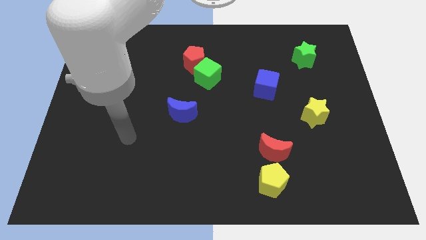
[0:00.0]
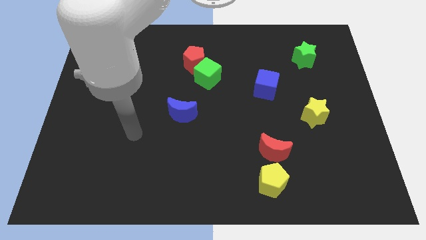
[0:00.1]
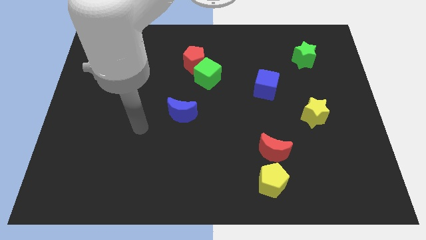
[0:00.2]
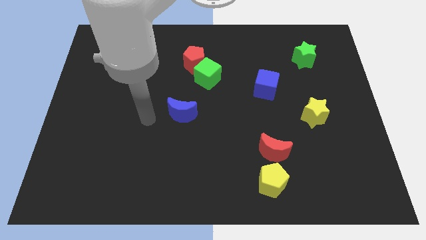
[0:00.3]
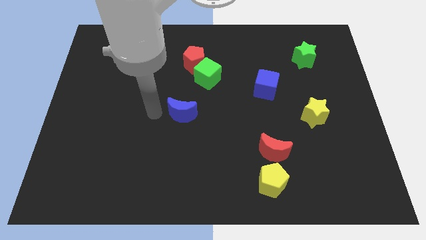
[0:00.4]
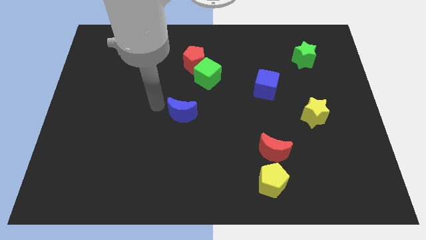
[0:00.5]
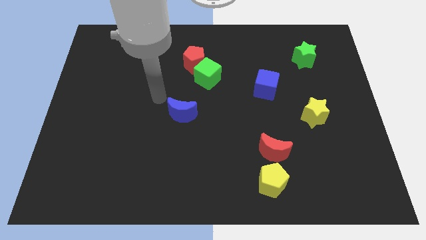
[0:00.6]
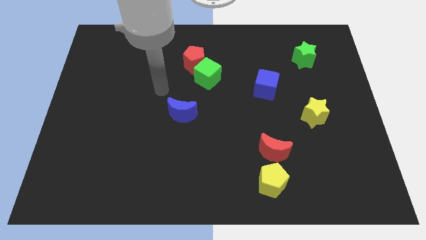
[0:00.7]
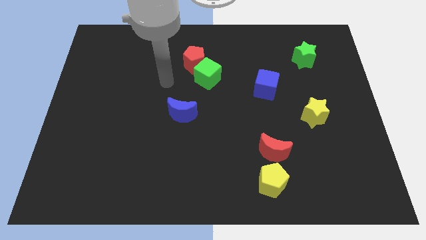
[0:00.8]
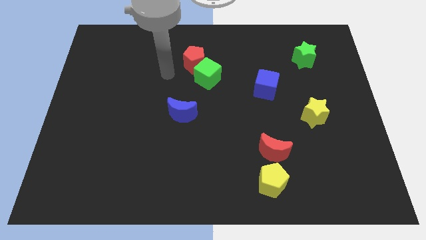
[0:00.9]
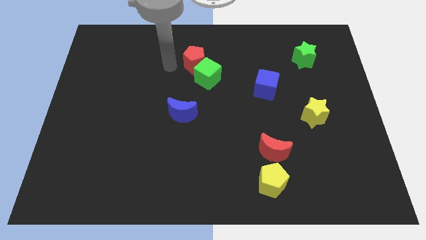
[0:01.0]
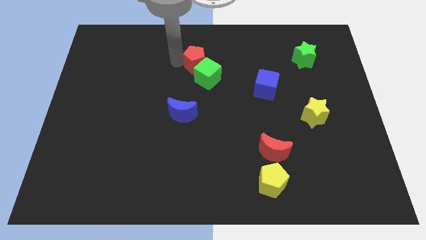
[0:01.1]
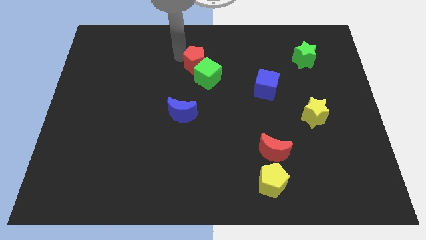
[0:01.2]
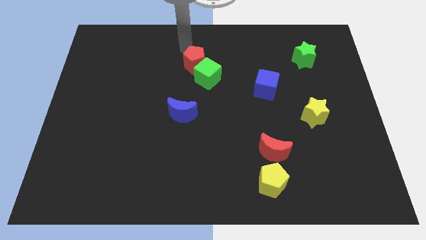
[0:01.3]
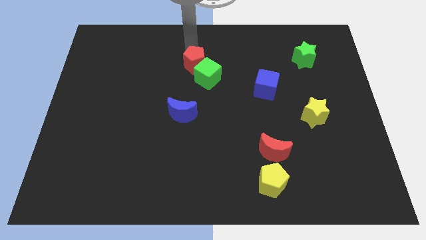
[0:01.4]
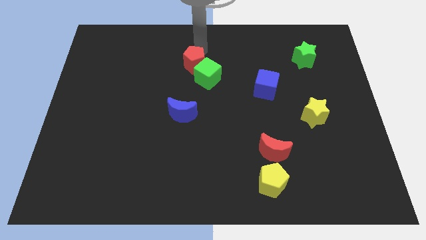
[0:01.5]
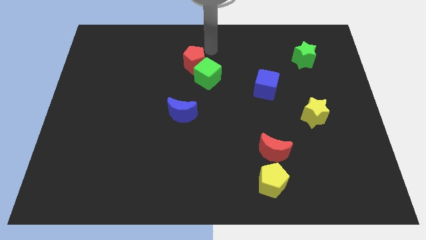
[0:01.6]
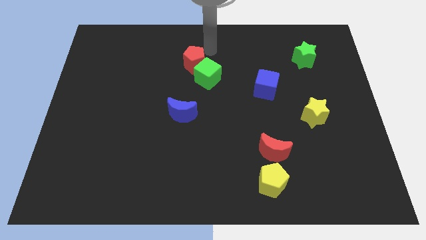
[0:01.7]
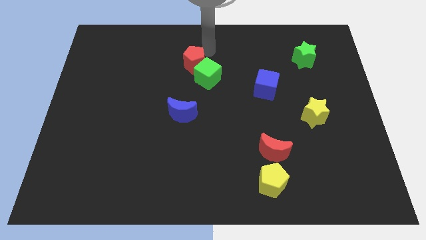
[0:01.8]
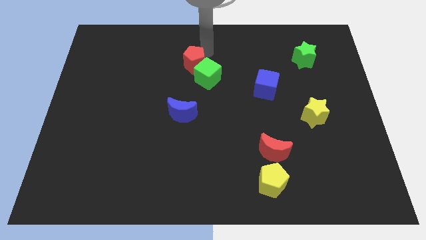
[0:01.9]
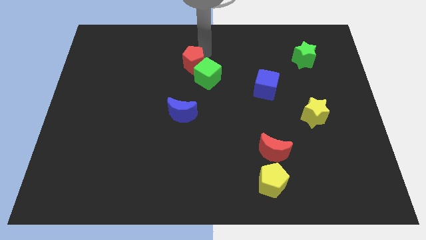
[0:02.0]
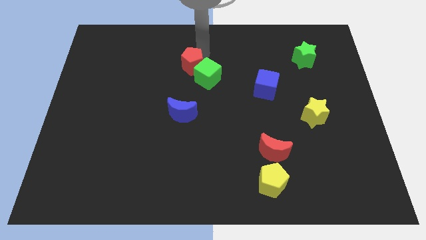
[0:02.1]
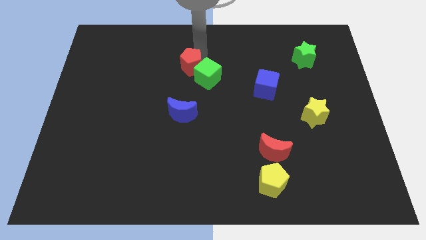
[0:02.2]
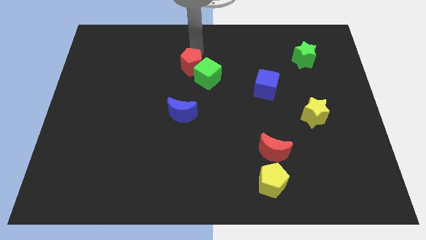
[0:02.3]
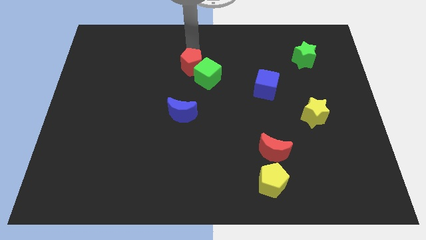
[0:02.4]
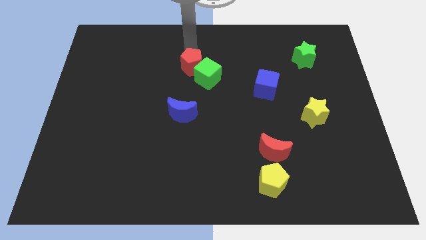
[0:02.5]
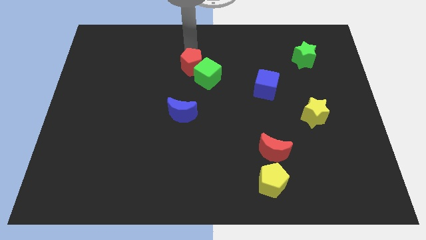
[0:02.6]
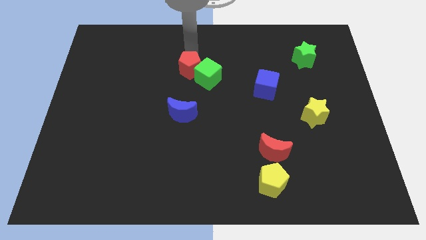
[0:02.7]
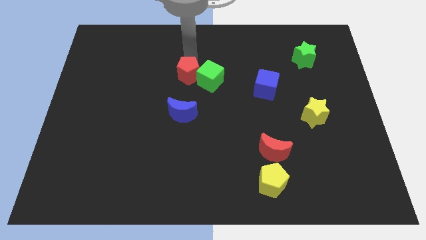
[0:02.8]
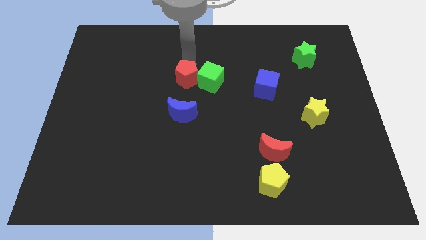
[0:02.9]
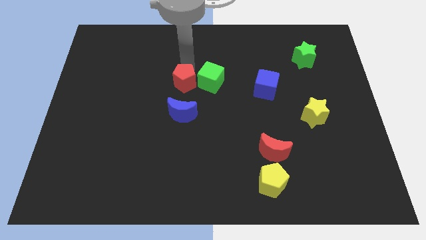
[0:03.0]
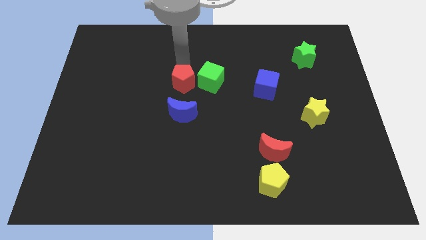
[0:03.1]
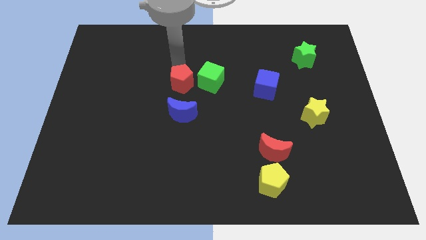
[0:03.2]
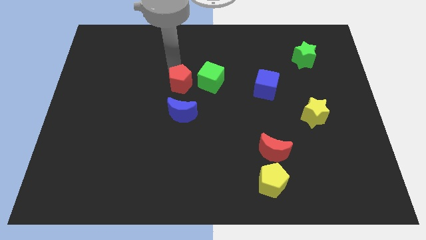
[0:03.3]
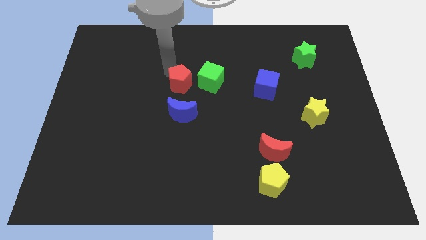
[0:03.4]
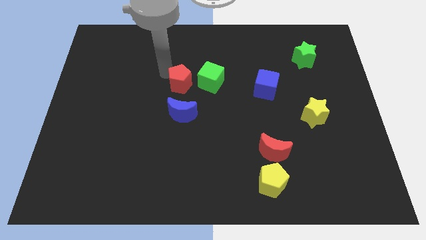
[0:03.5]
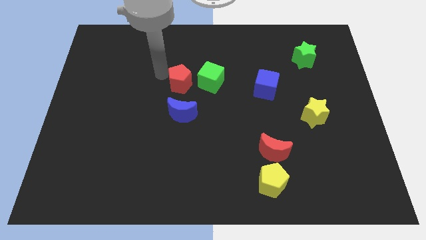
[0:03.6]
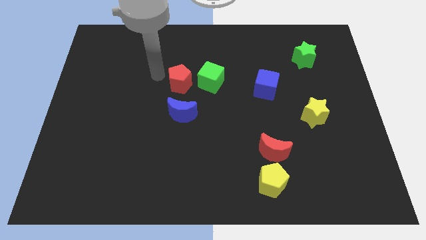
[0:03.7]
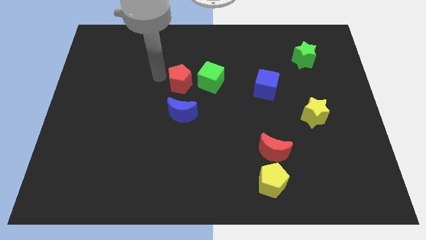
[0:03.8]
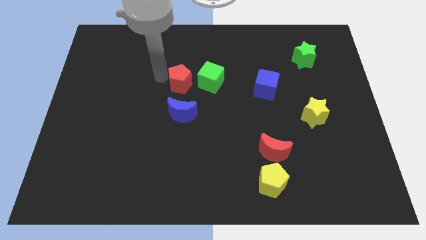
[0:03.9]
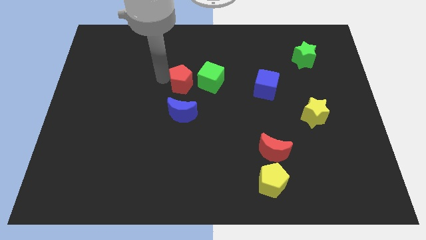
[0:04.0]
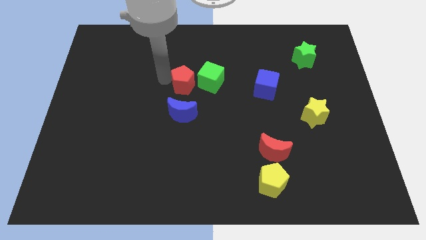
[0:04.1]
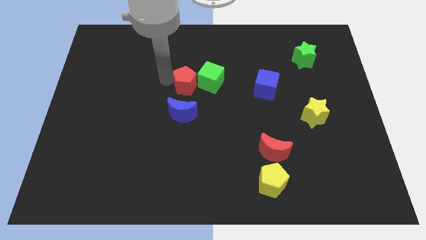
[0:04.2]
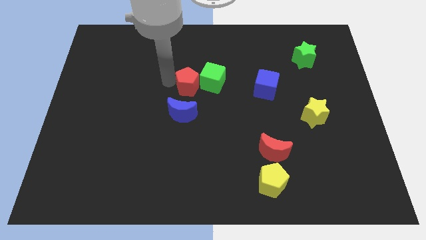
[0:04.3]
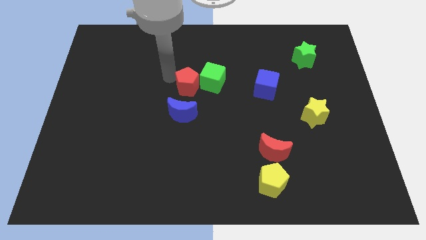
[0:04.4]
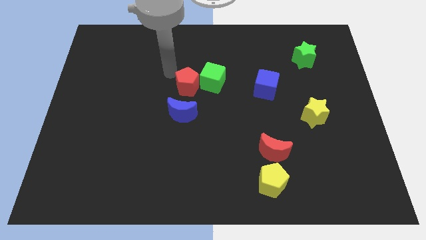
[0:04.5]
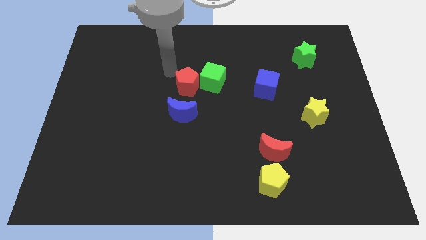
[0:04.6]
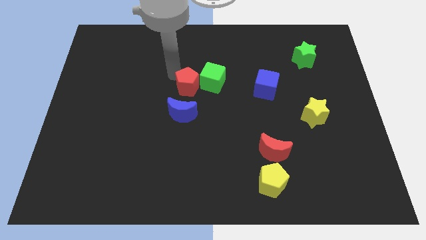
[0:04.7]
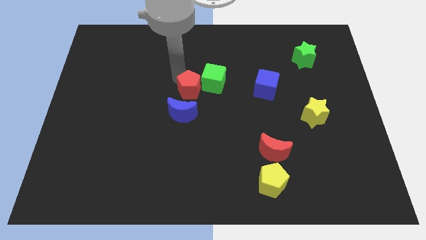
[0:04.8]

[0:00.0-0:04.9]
push the red pentagon diagonally up and to the right of the blue moon

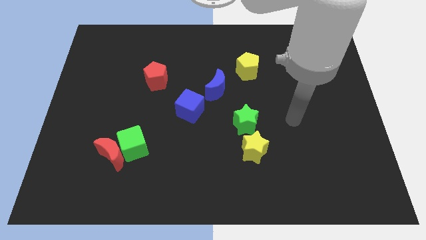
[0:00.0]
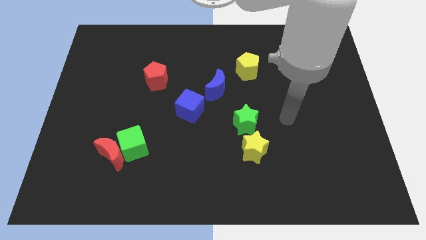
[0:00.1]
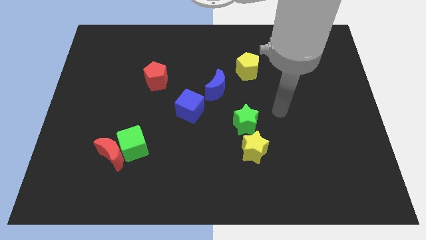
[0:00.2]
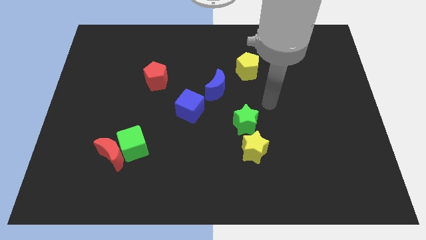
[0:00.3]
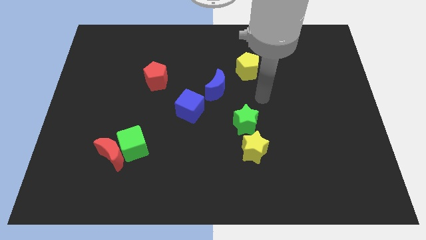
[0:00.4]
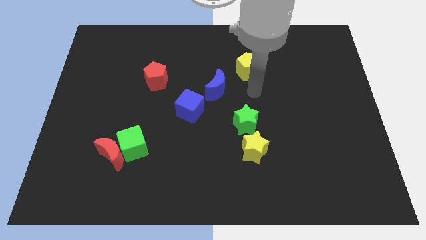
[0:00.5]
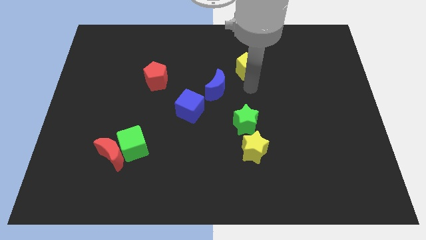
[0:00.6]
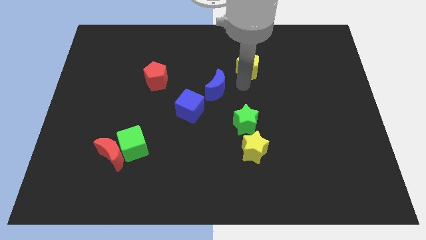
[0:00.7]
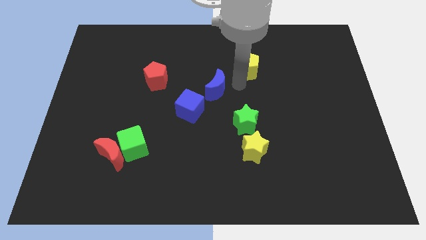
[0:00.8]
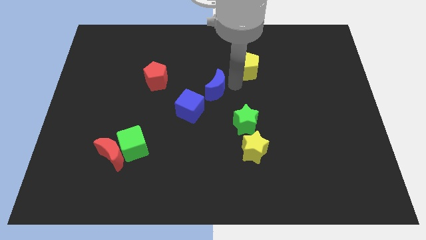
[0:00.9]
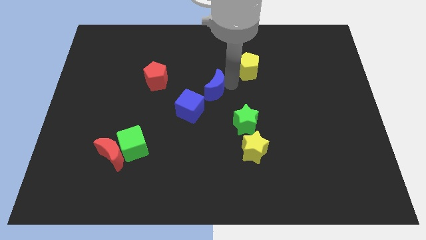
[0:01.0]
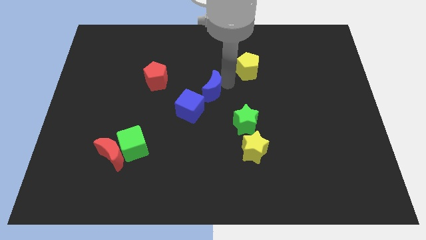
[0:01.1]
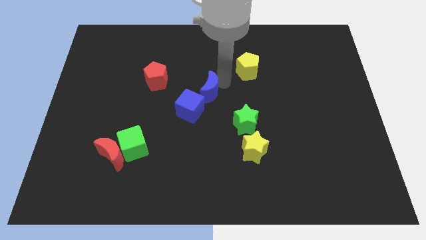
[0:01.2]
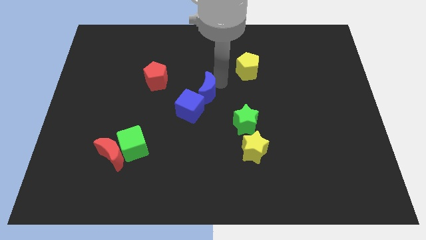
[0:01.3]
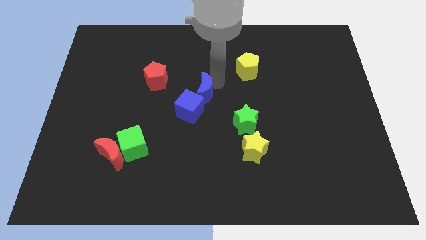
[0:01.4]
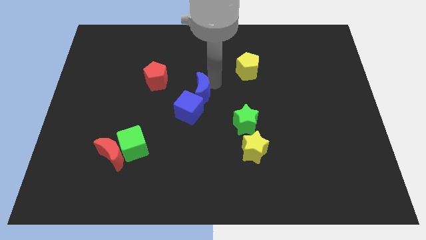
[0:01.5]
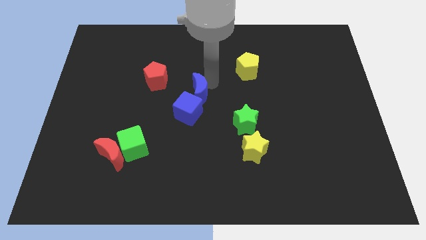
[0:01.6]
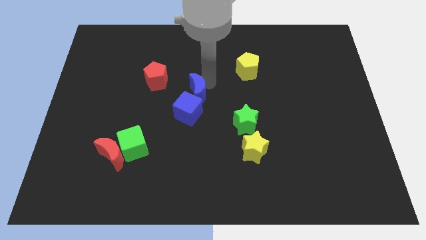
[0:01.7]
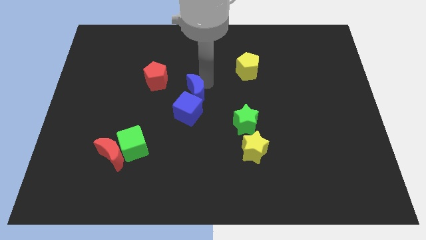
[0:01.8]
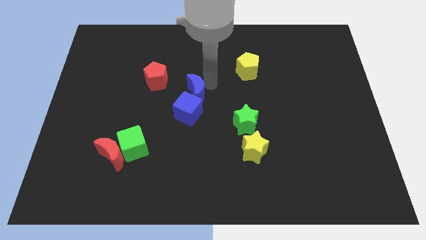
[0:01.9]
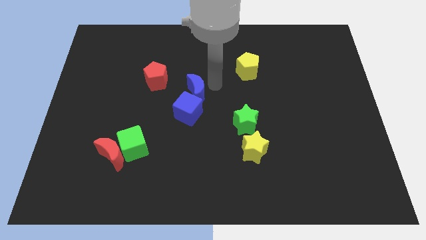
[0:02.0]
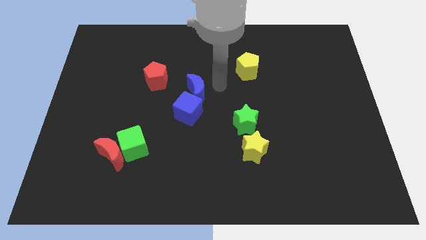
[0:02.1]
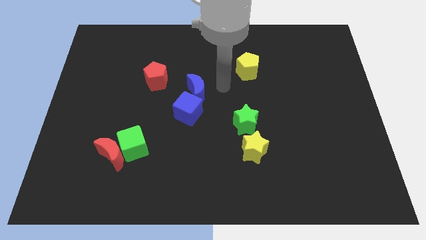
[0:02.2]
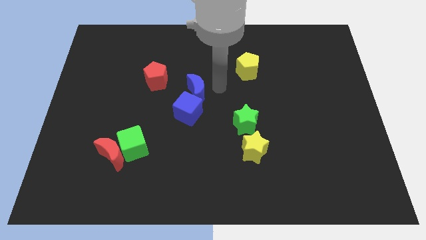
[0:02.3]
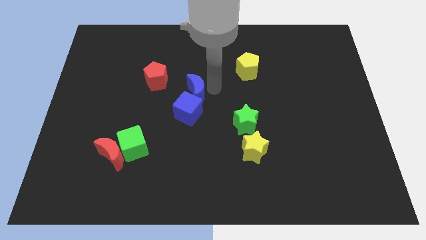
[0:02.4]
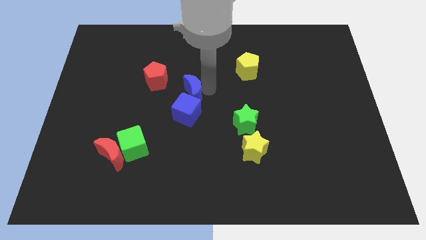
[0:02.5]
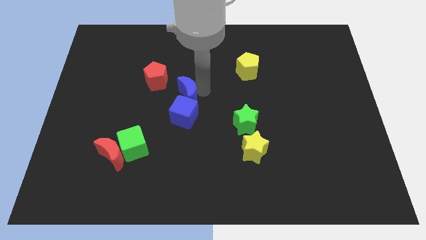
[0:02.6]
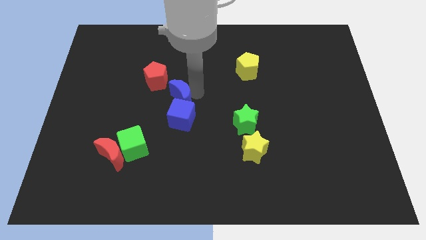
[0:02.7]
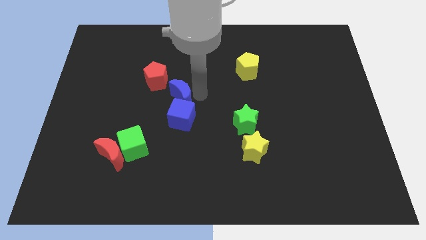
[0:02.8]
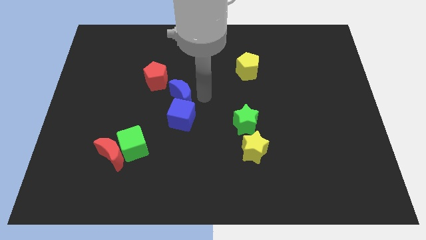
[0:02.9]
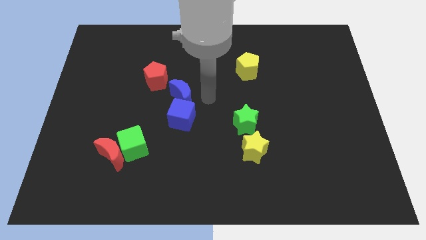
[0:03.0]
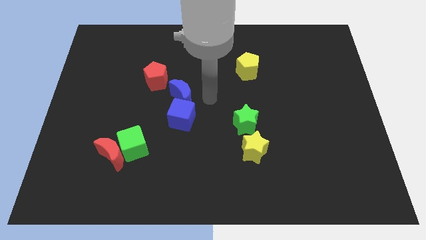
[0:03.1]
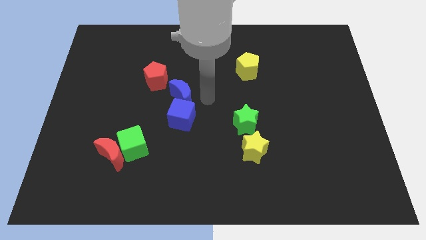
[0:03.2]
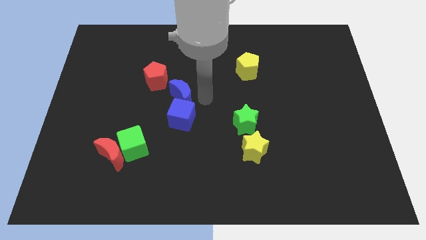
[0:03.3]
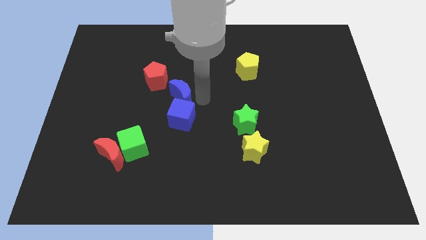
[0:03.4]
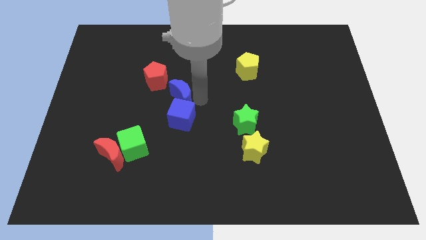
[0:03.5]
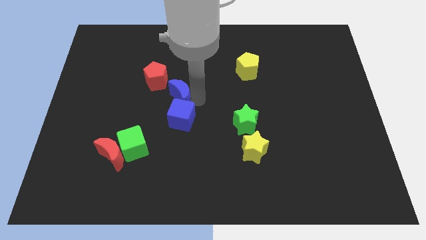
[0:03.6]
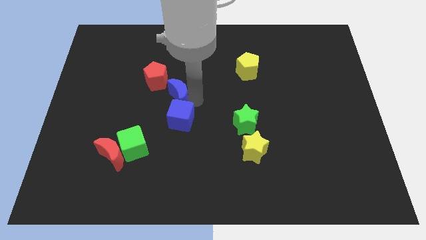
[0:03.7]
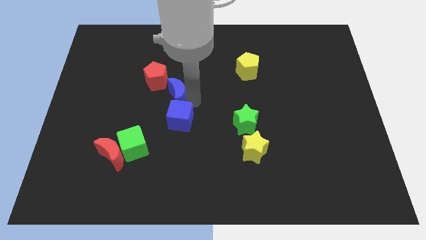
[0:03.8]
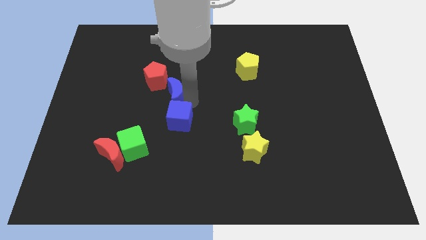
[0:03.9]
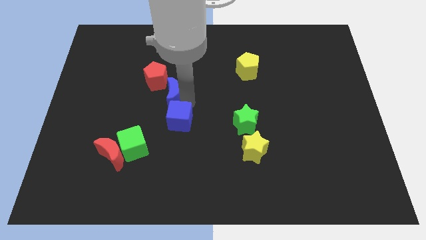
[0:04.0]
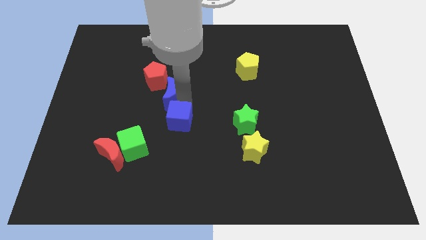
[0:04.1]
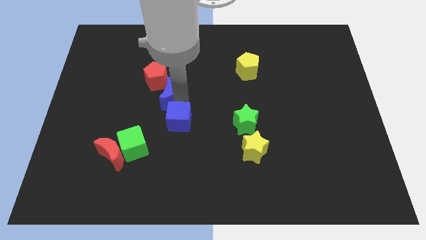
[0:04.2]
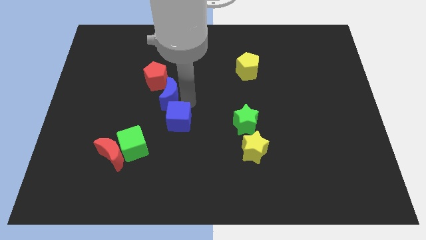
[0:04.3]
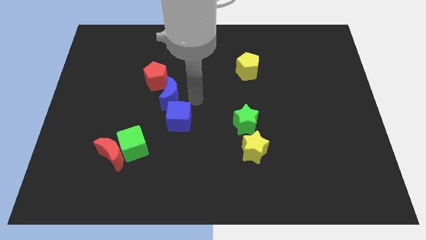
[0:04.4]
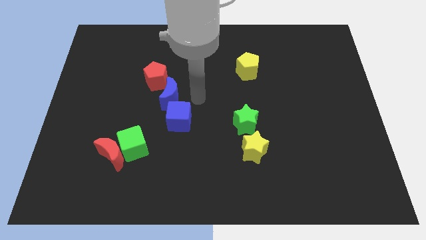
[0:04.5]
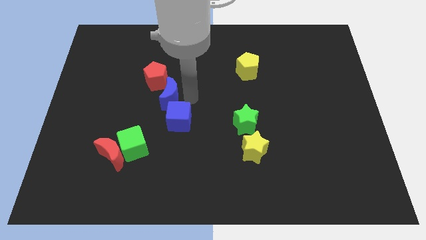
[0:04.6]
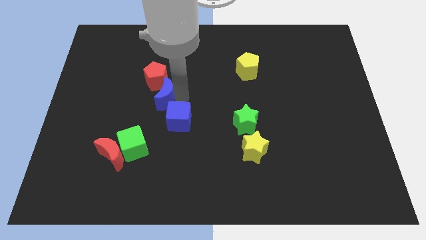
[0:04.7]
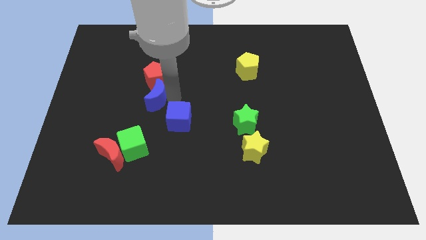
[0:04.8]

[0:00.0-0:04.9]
move the blue moon to the bottom left of the red pentagon
